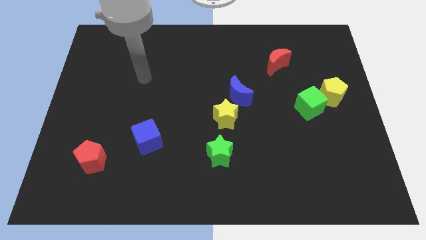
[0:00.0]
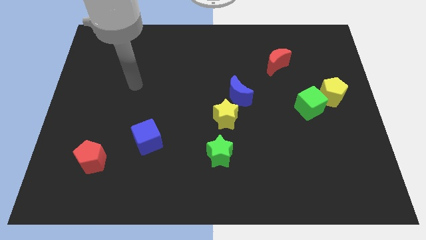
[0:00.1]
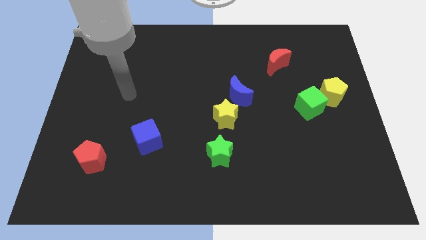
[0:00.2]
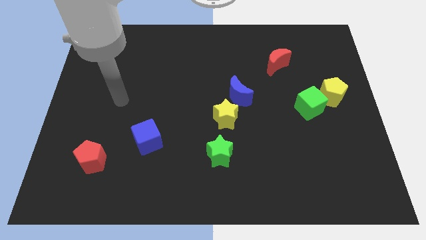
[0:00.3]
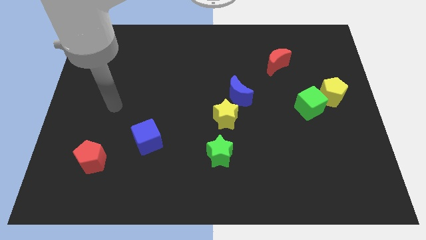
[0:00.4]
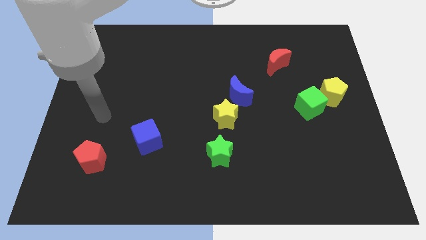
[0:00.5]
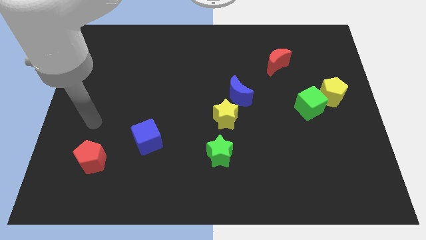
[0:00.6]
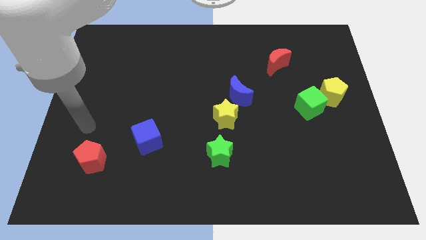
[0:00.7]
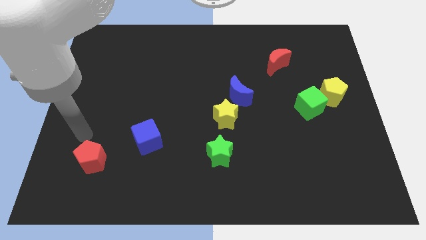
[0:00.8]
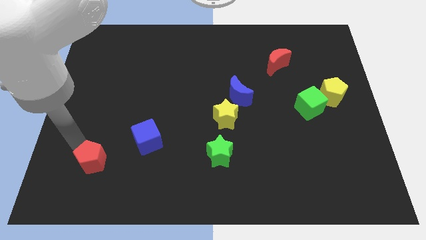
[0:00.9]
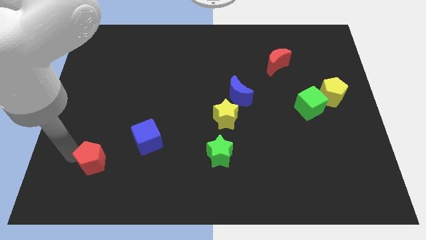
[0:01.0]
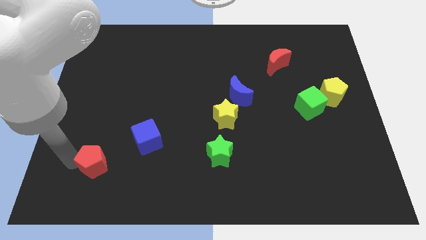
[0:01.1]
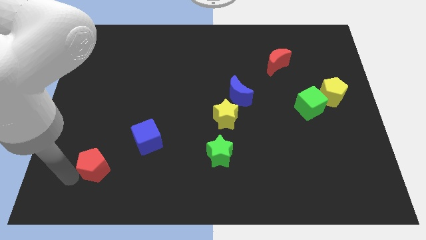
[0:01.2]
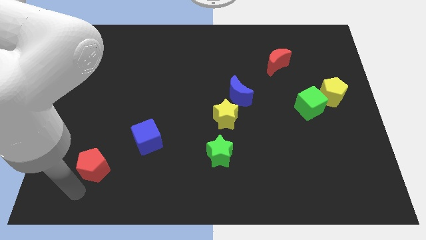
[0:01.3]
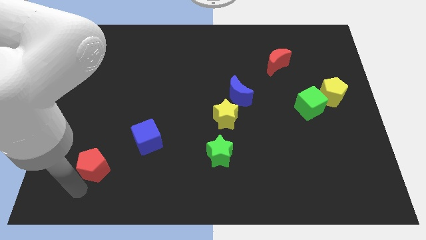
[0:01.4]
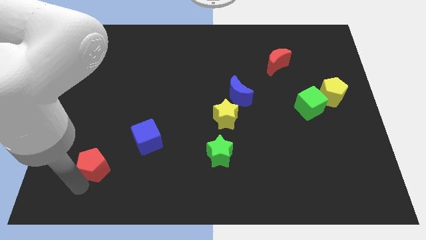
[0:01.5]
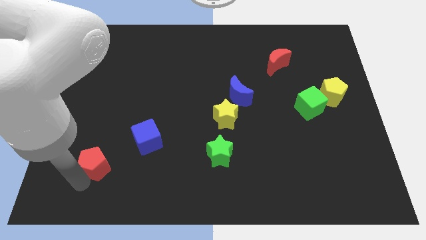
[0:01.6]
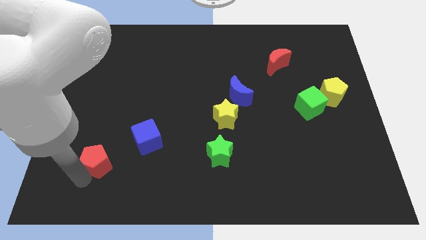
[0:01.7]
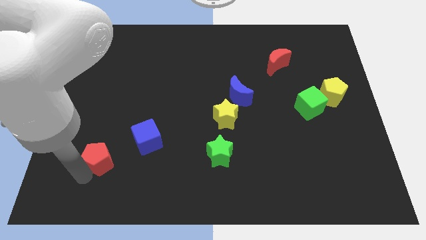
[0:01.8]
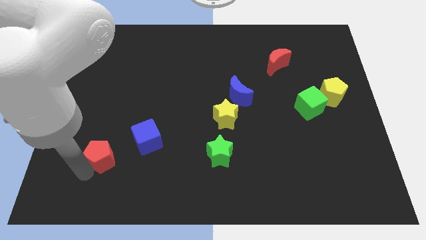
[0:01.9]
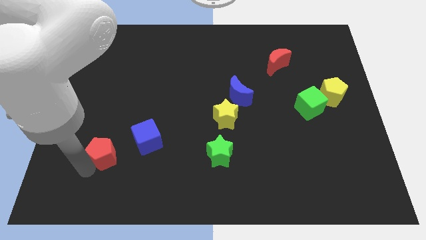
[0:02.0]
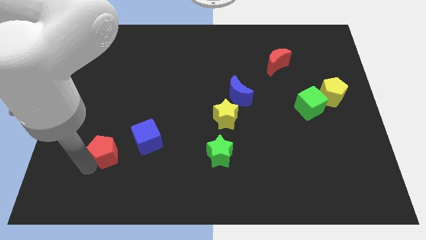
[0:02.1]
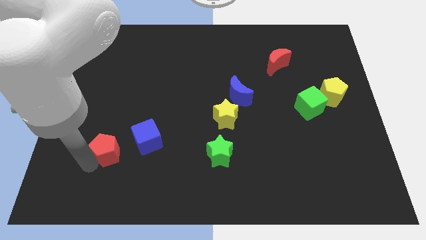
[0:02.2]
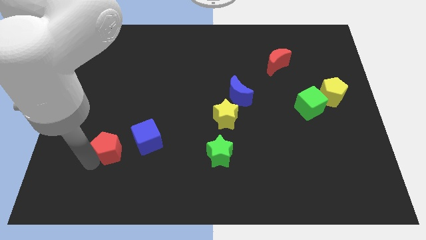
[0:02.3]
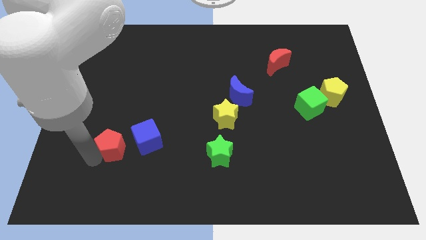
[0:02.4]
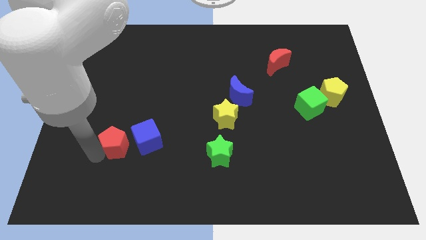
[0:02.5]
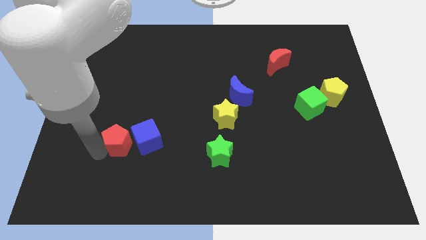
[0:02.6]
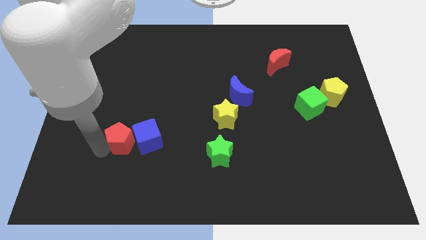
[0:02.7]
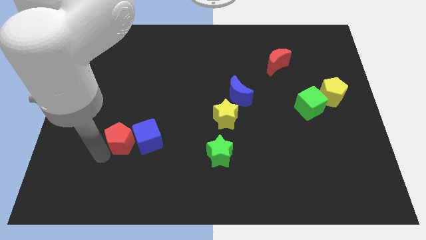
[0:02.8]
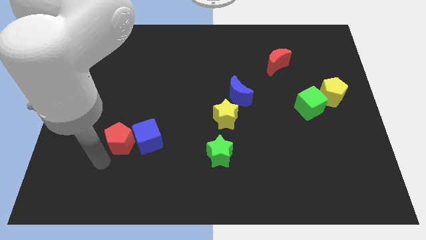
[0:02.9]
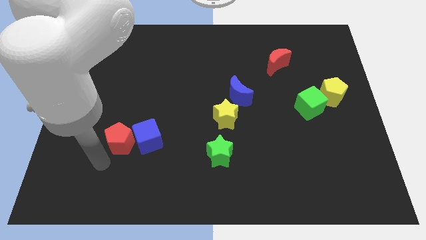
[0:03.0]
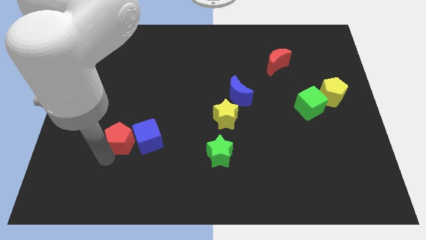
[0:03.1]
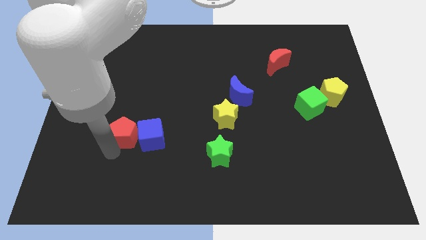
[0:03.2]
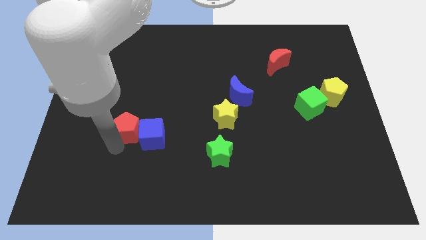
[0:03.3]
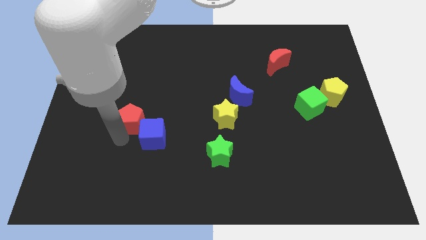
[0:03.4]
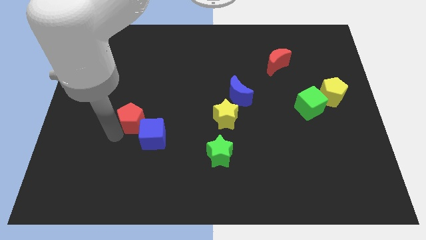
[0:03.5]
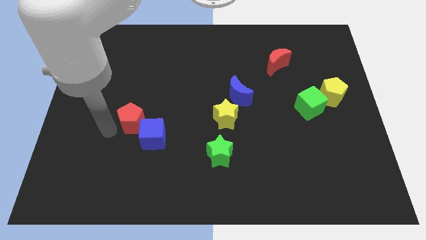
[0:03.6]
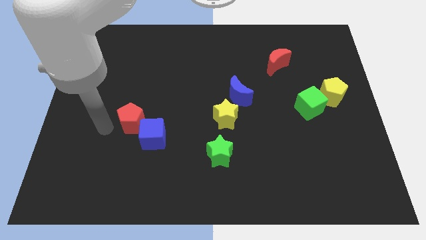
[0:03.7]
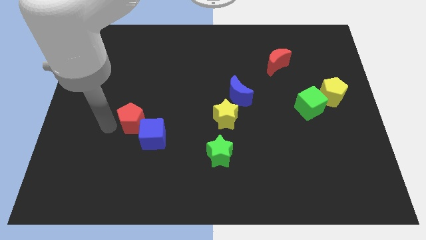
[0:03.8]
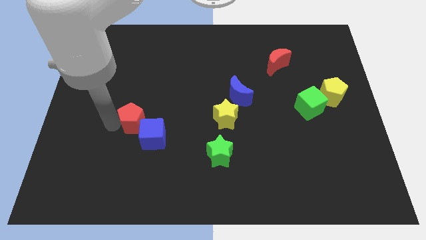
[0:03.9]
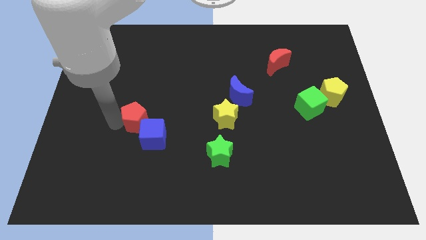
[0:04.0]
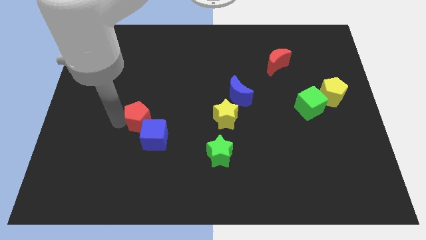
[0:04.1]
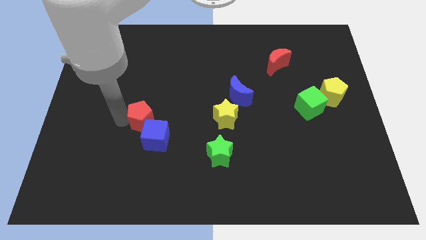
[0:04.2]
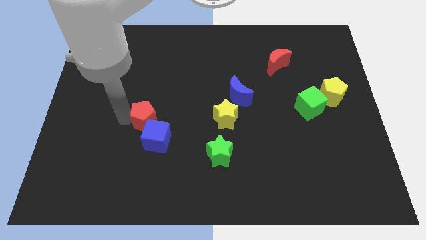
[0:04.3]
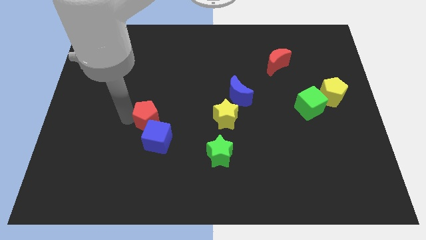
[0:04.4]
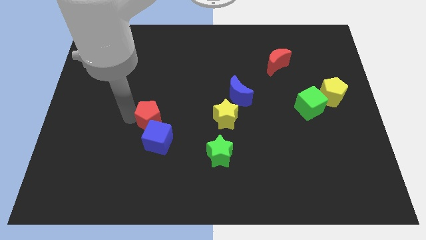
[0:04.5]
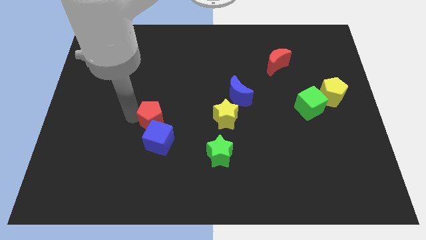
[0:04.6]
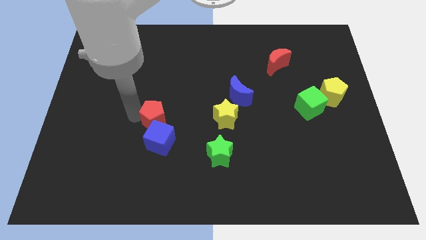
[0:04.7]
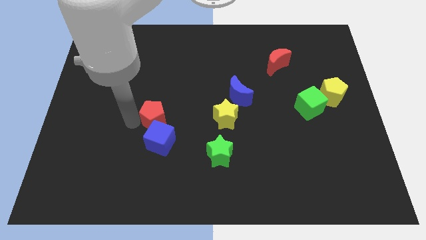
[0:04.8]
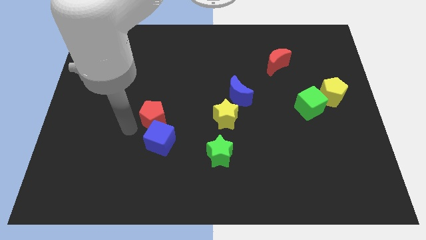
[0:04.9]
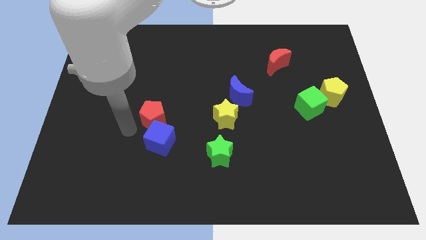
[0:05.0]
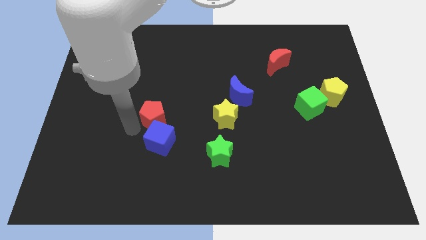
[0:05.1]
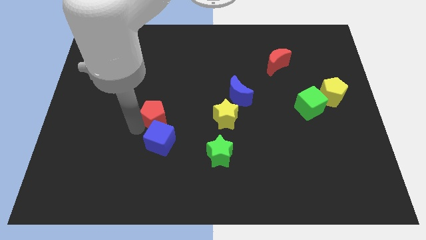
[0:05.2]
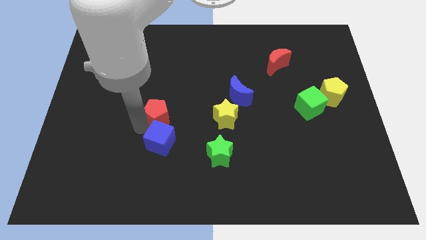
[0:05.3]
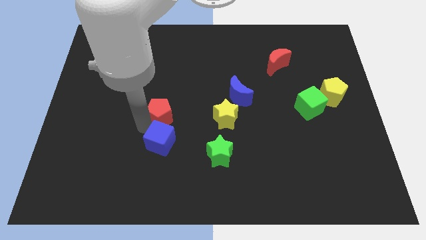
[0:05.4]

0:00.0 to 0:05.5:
move the red pentagon to the center

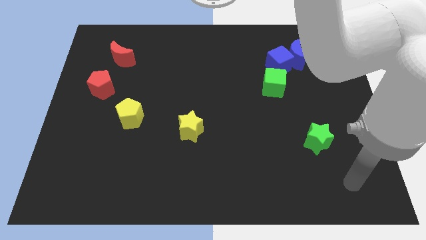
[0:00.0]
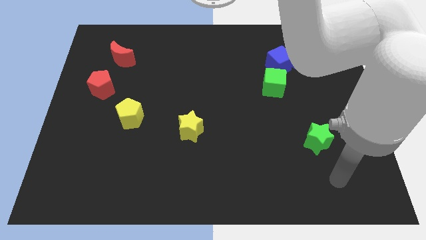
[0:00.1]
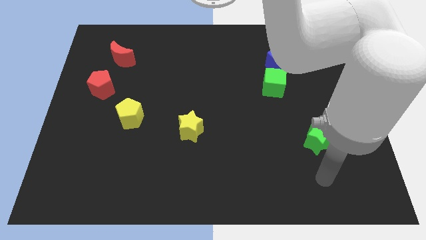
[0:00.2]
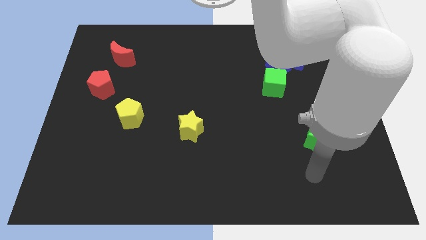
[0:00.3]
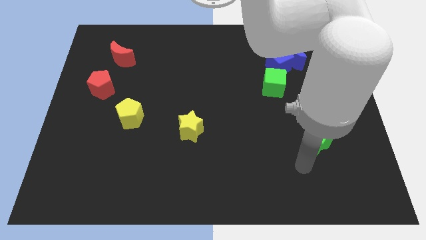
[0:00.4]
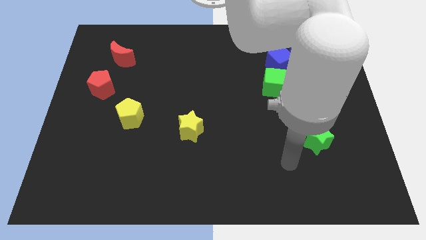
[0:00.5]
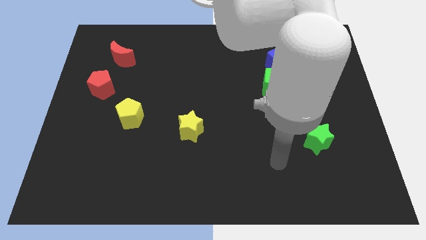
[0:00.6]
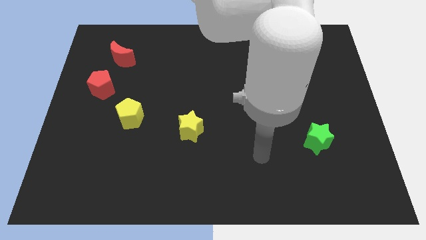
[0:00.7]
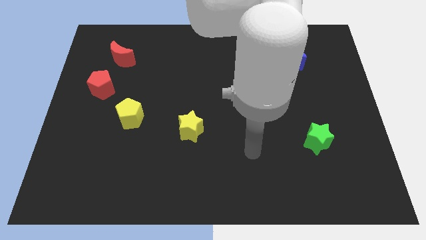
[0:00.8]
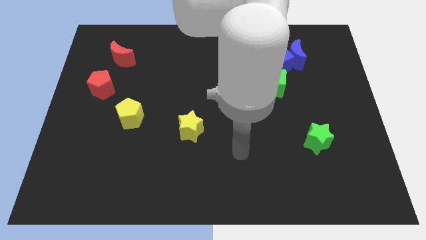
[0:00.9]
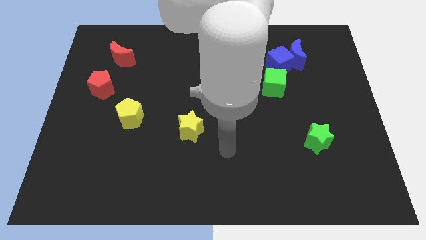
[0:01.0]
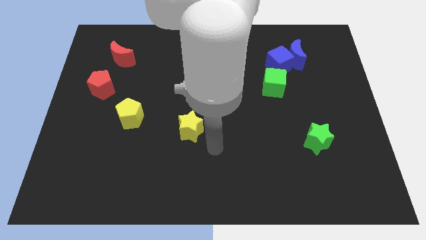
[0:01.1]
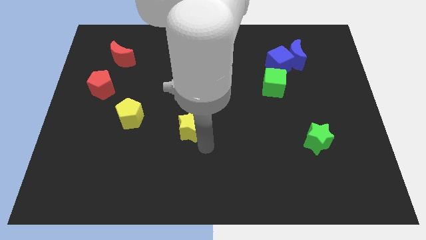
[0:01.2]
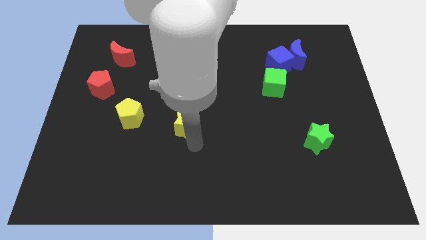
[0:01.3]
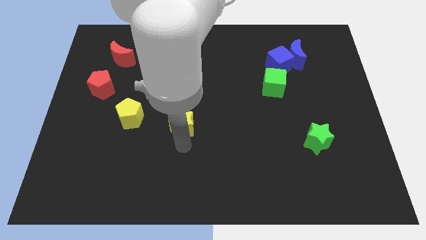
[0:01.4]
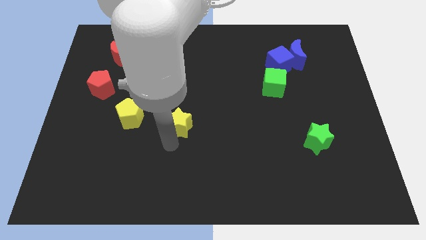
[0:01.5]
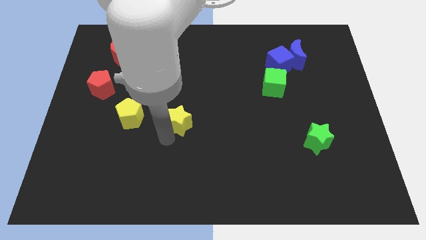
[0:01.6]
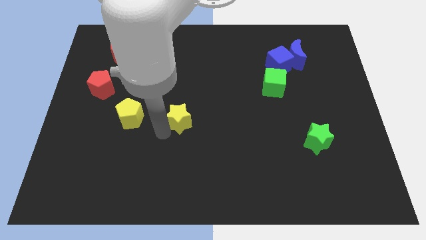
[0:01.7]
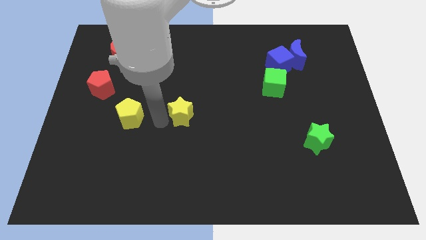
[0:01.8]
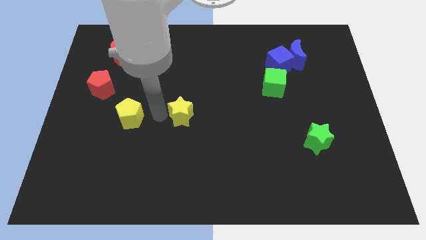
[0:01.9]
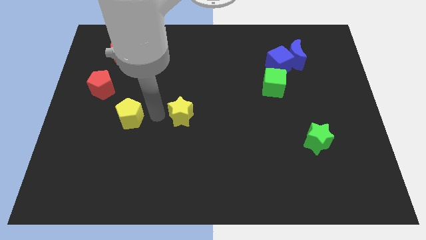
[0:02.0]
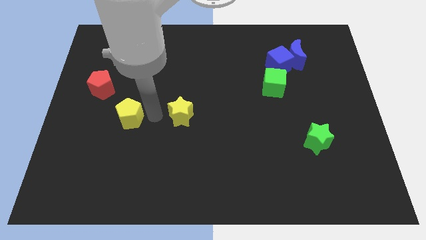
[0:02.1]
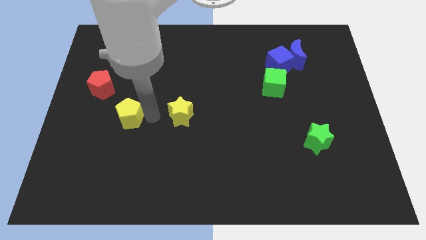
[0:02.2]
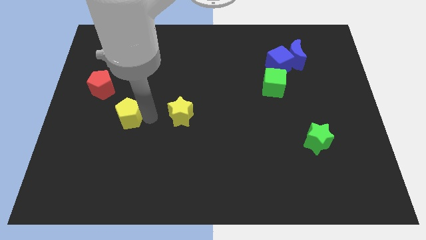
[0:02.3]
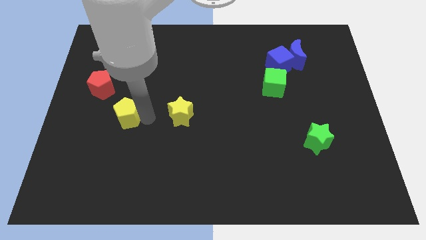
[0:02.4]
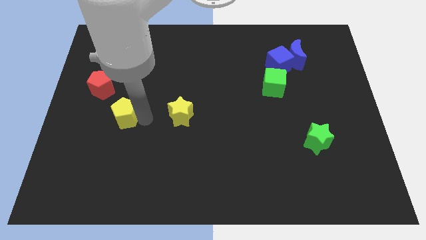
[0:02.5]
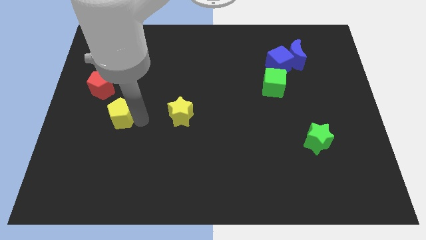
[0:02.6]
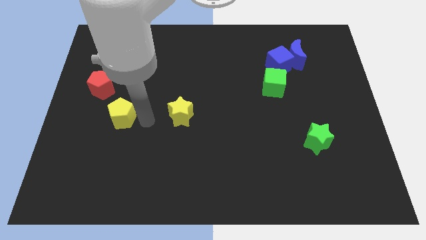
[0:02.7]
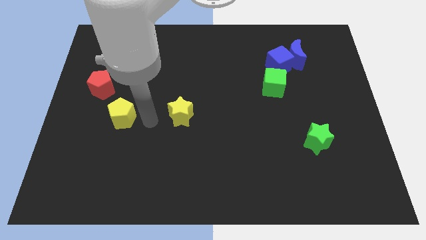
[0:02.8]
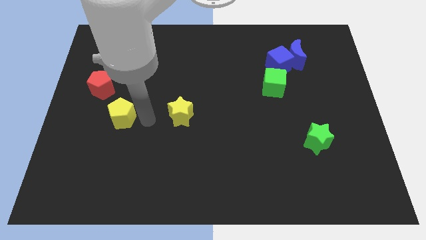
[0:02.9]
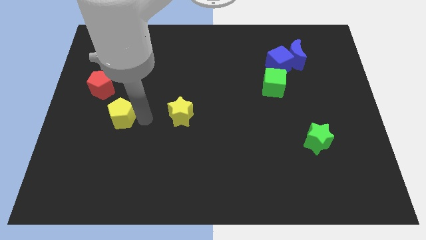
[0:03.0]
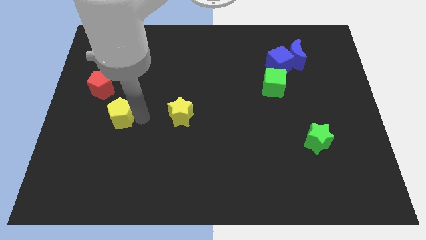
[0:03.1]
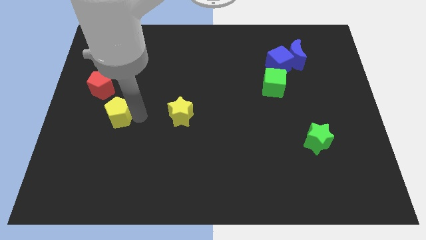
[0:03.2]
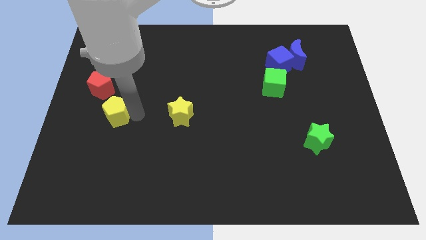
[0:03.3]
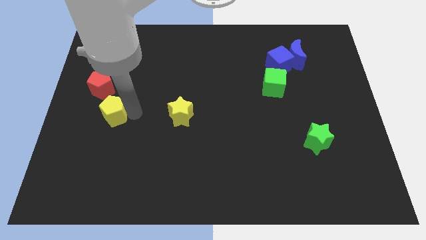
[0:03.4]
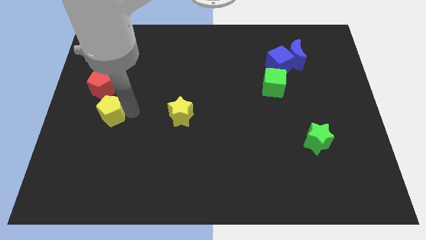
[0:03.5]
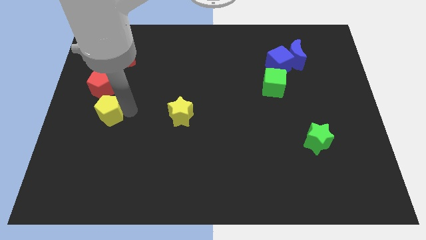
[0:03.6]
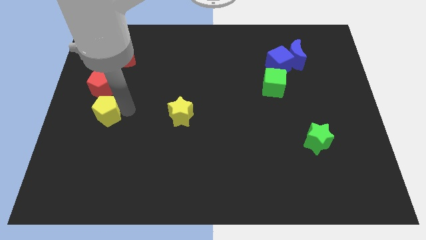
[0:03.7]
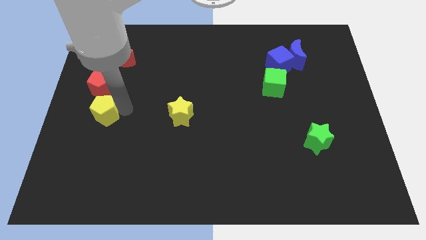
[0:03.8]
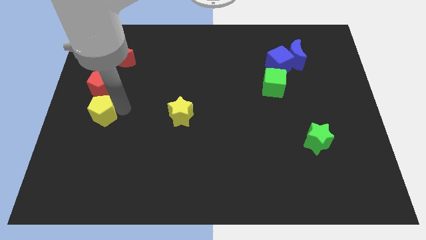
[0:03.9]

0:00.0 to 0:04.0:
slide the yellow pentagon to the left side of the board
